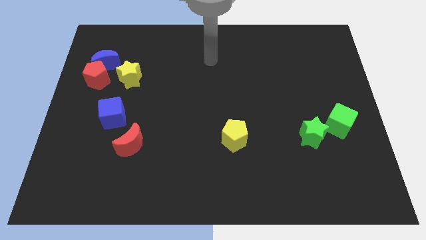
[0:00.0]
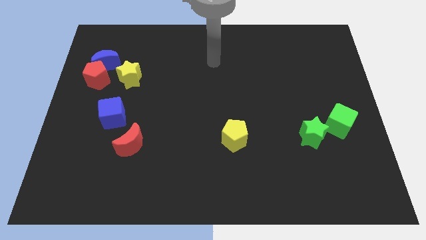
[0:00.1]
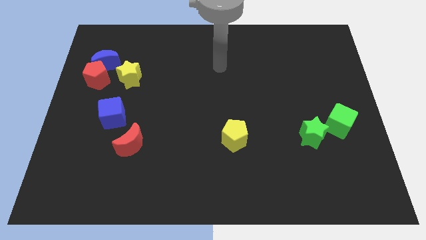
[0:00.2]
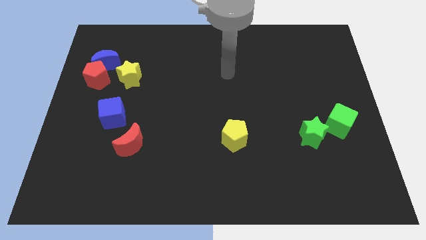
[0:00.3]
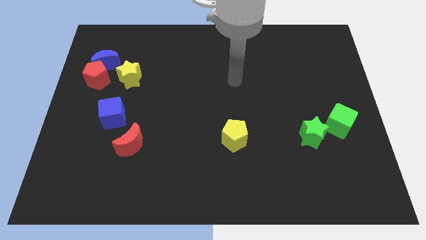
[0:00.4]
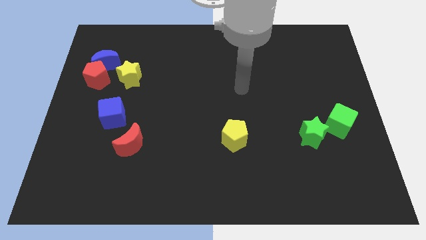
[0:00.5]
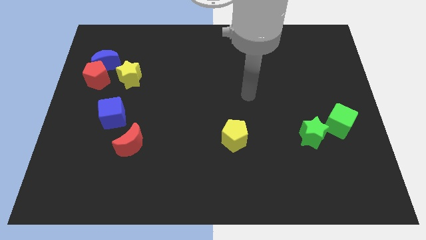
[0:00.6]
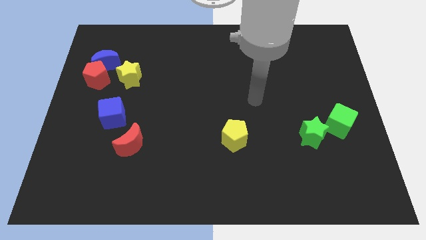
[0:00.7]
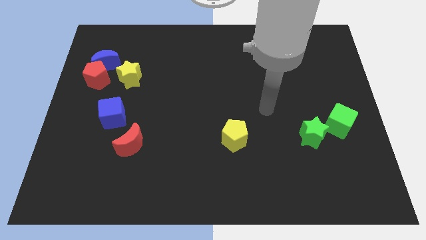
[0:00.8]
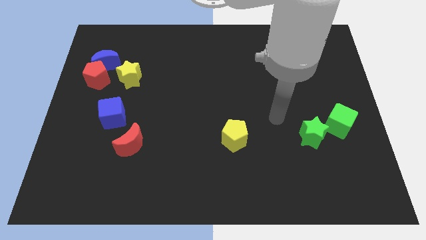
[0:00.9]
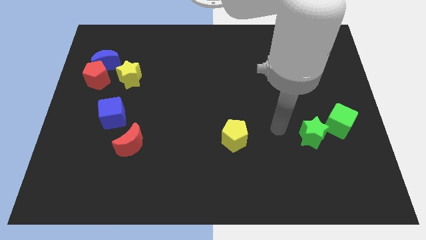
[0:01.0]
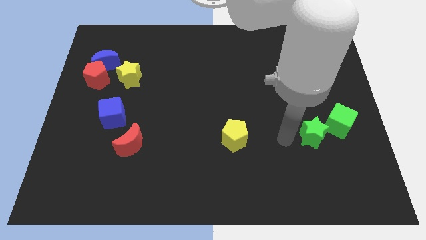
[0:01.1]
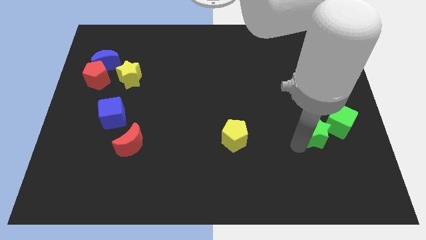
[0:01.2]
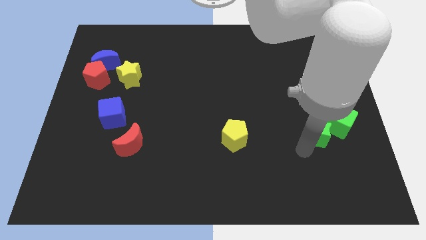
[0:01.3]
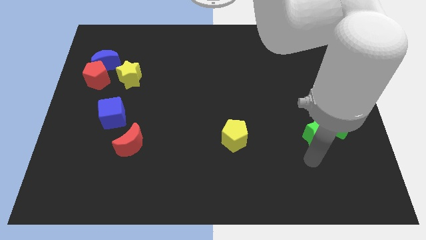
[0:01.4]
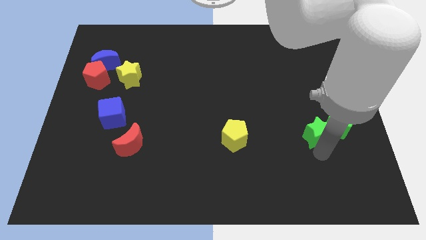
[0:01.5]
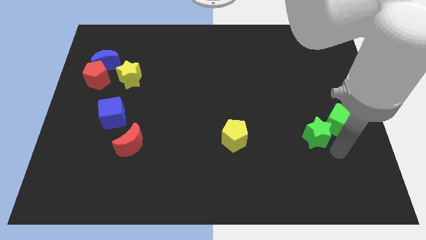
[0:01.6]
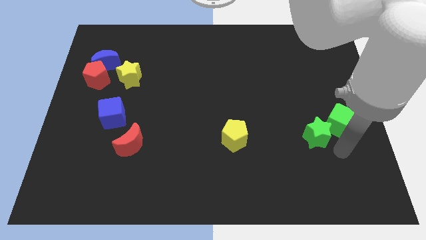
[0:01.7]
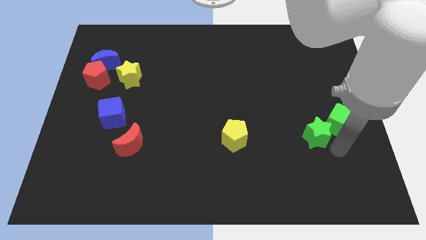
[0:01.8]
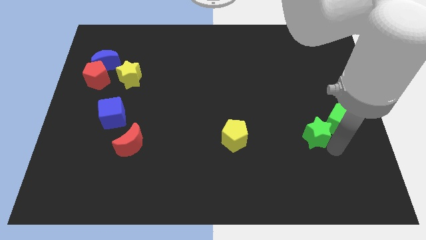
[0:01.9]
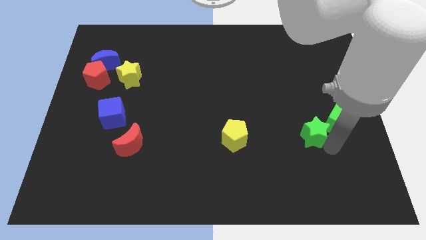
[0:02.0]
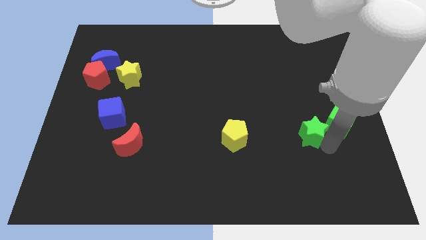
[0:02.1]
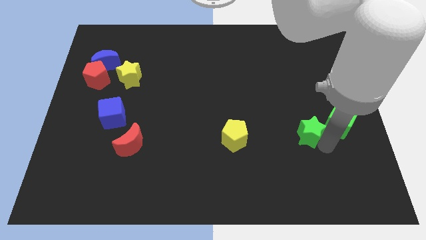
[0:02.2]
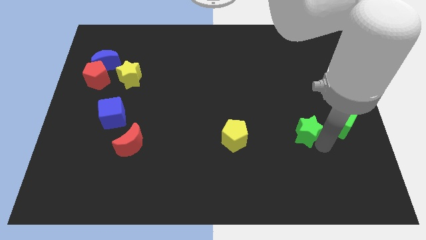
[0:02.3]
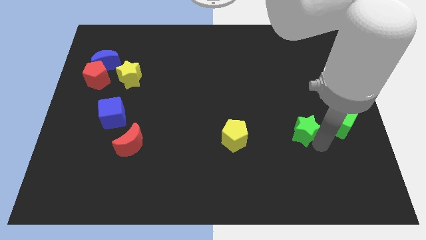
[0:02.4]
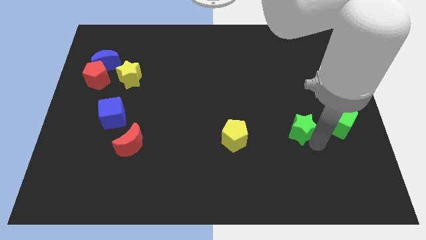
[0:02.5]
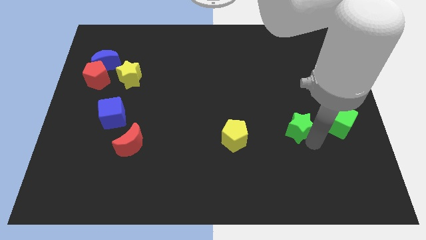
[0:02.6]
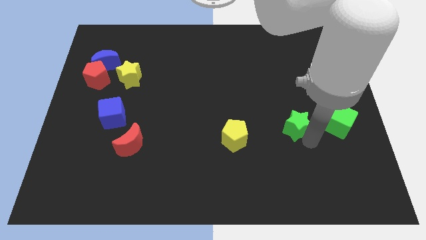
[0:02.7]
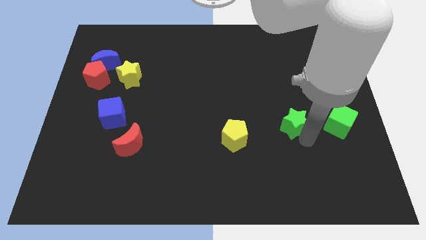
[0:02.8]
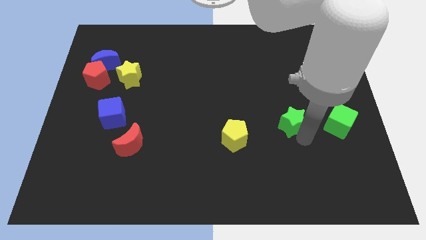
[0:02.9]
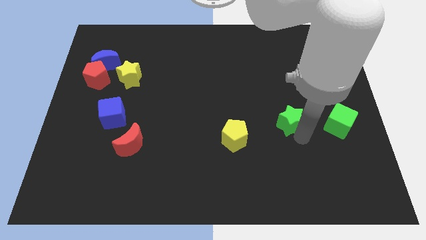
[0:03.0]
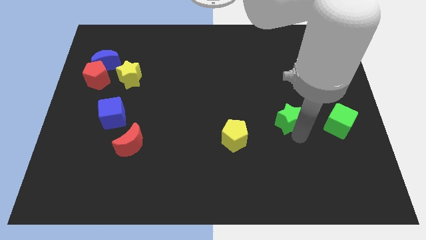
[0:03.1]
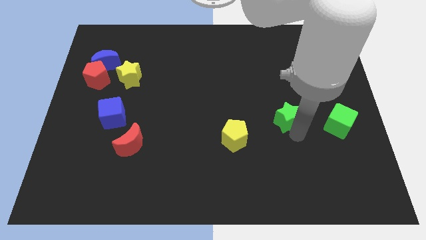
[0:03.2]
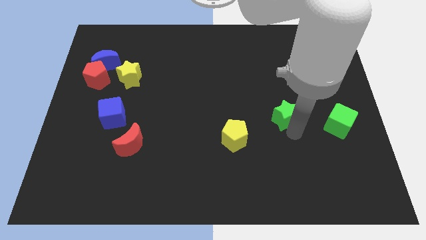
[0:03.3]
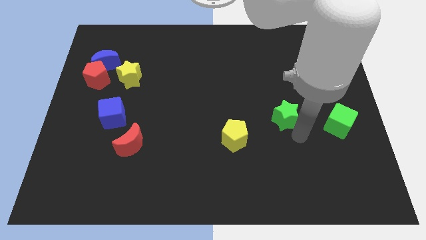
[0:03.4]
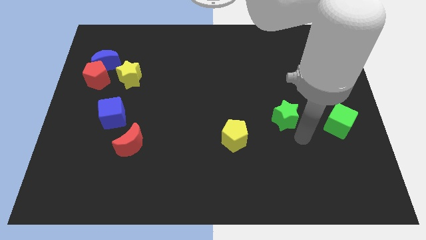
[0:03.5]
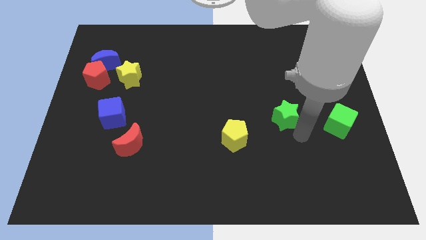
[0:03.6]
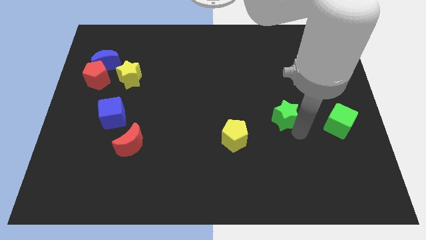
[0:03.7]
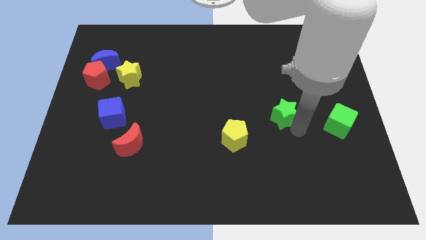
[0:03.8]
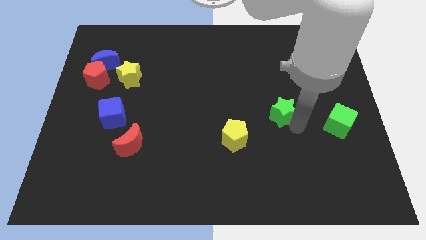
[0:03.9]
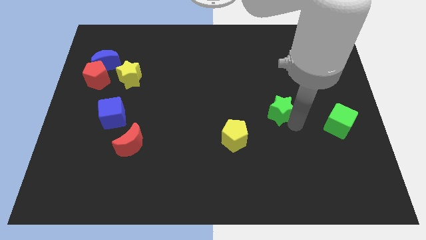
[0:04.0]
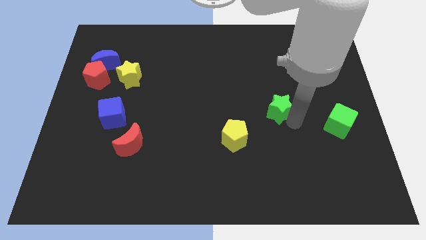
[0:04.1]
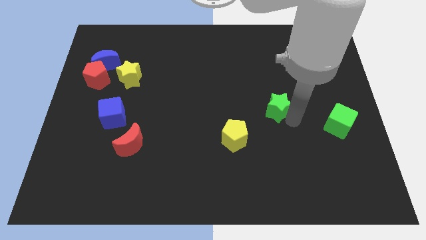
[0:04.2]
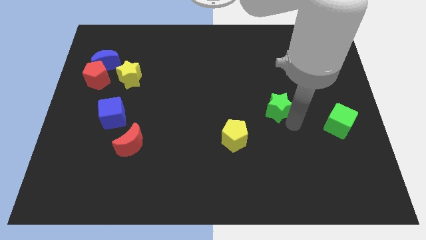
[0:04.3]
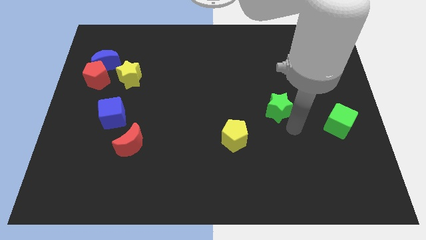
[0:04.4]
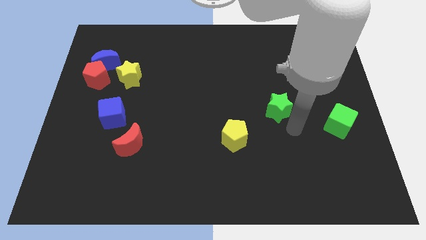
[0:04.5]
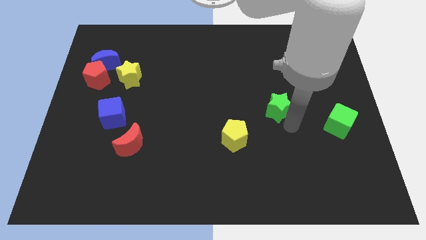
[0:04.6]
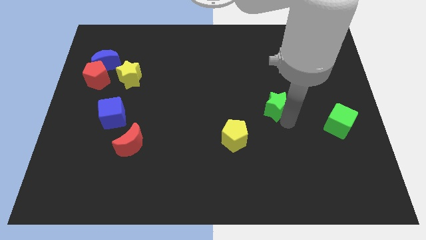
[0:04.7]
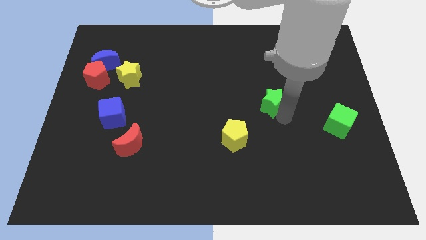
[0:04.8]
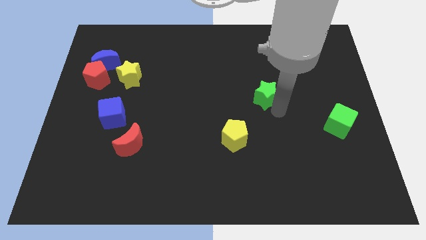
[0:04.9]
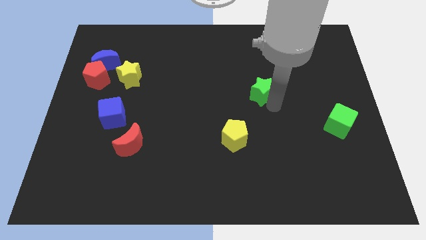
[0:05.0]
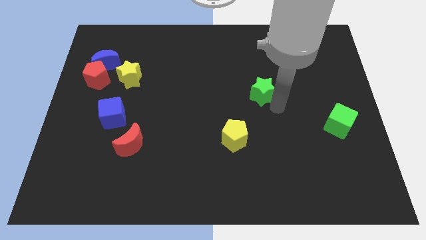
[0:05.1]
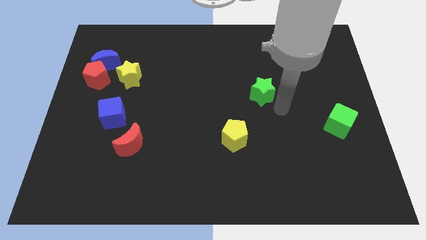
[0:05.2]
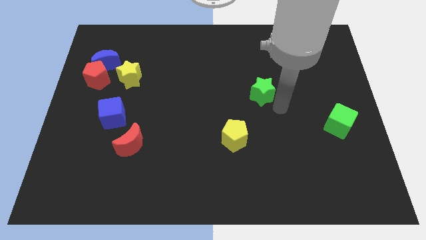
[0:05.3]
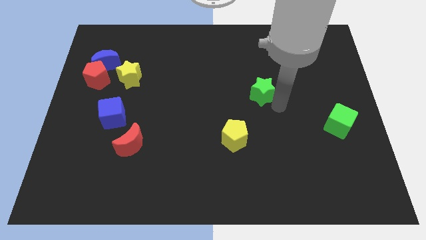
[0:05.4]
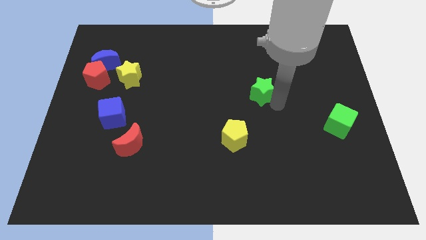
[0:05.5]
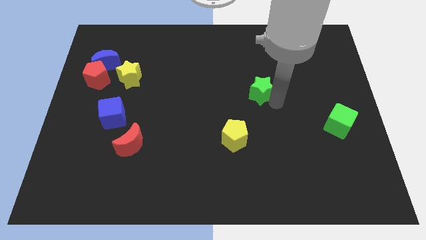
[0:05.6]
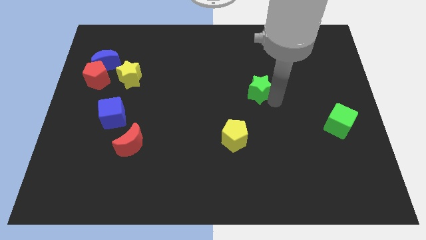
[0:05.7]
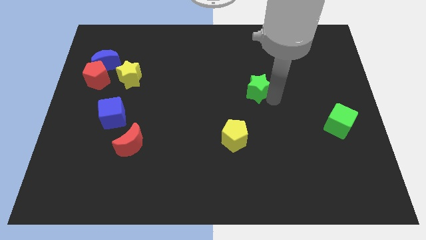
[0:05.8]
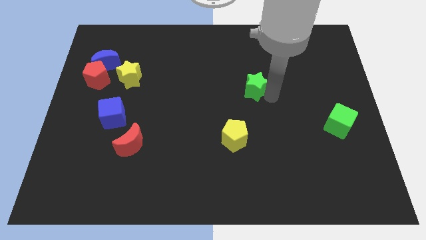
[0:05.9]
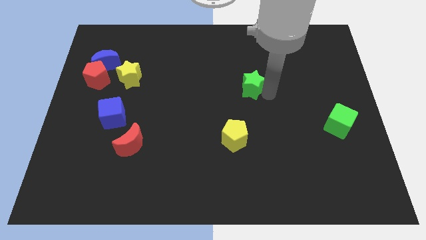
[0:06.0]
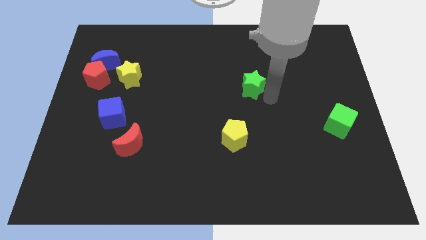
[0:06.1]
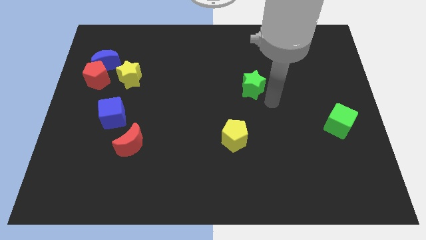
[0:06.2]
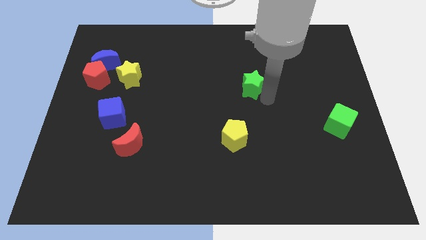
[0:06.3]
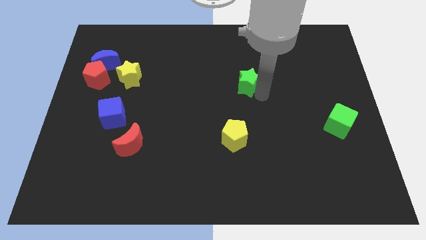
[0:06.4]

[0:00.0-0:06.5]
push the green star upwards and then left

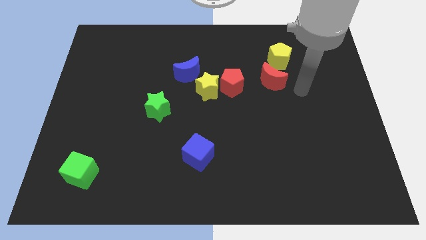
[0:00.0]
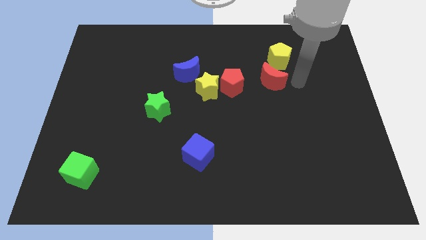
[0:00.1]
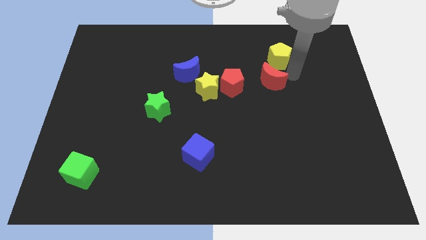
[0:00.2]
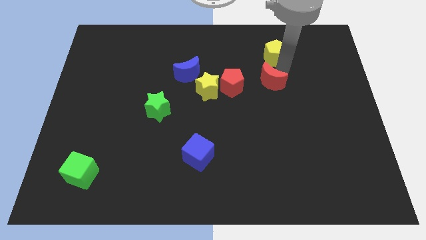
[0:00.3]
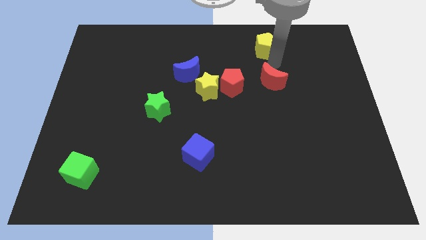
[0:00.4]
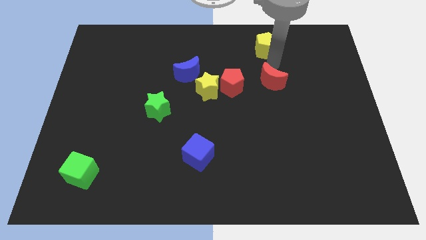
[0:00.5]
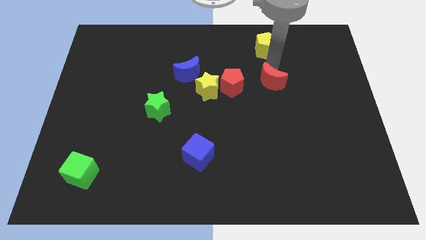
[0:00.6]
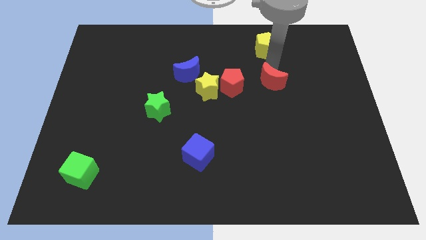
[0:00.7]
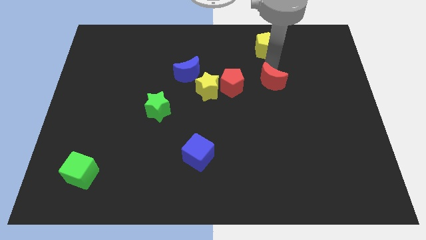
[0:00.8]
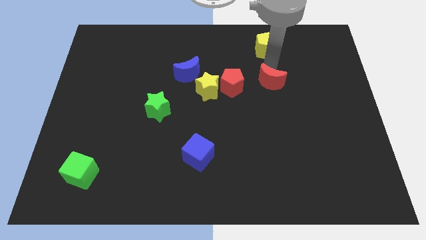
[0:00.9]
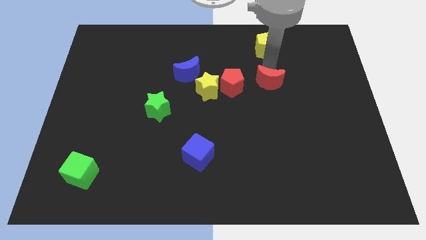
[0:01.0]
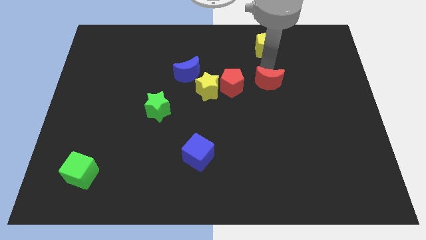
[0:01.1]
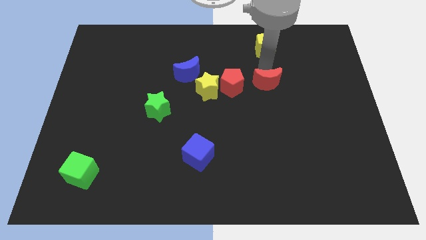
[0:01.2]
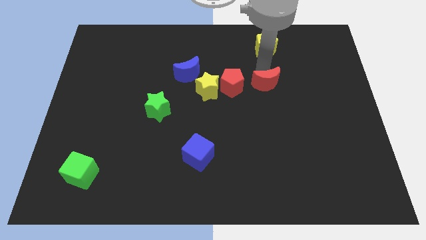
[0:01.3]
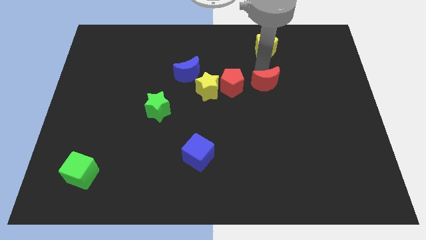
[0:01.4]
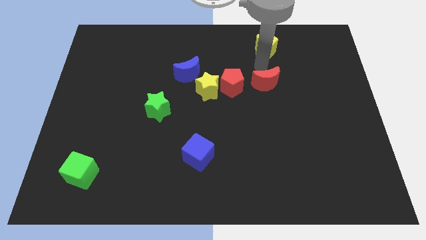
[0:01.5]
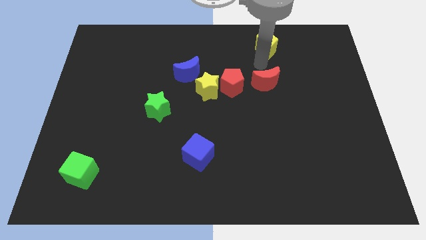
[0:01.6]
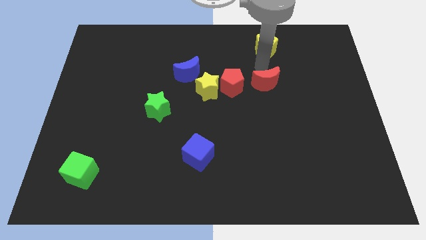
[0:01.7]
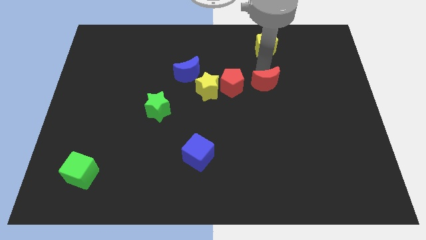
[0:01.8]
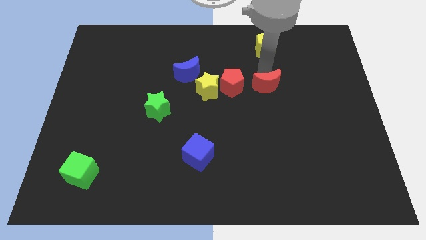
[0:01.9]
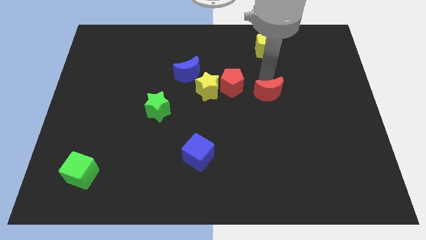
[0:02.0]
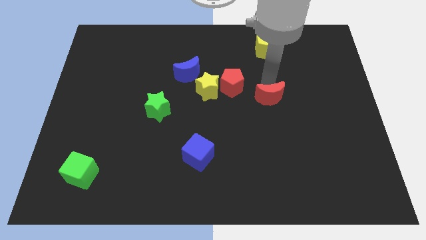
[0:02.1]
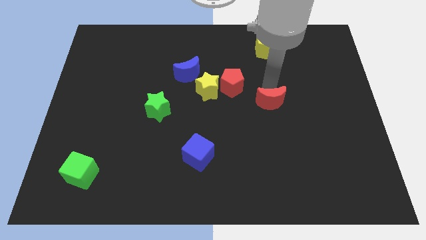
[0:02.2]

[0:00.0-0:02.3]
slightly move the red moon down
